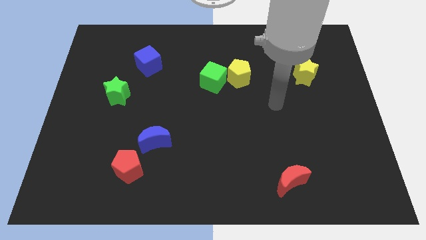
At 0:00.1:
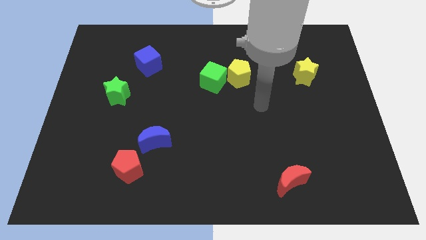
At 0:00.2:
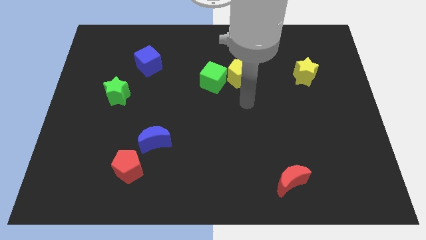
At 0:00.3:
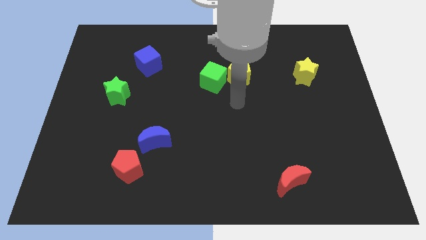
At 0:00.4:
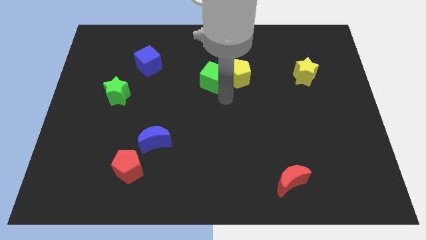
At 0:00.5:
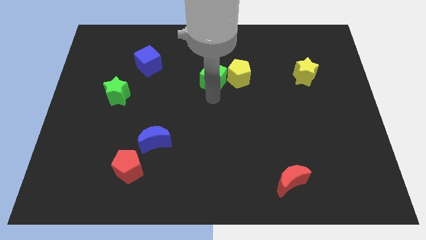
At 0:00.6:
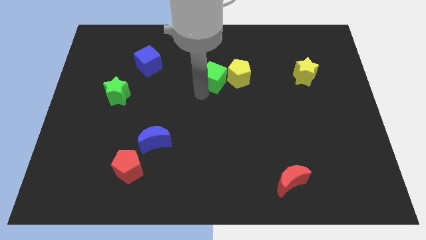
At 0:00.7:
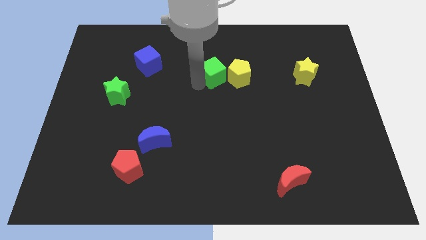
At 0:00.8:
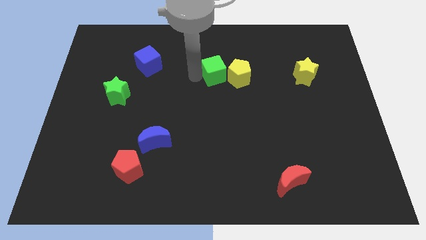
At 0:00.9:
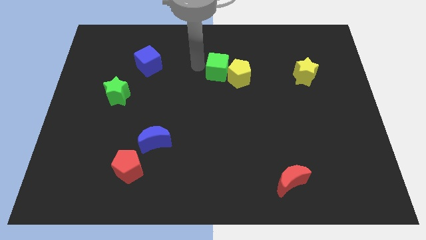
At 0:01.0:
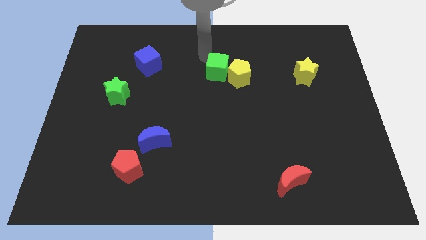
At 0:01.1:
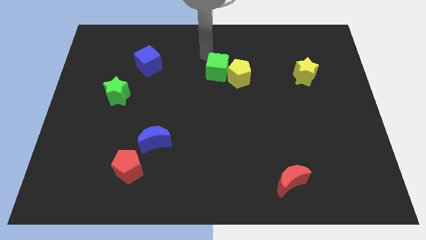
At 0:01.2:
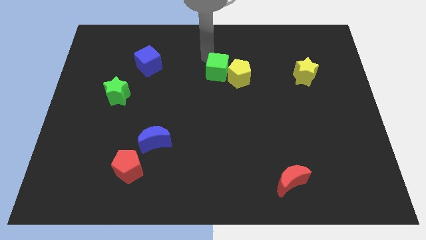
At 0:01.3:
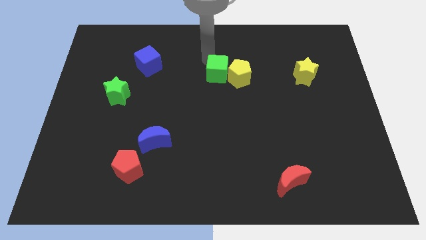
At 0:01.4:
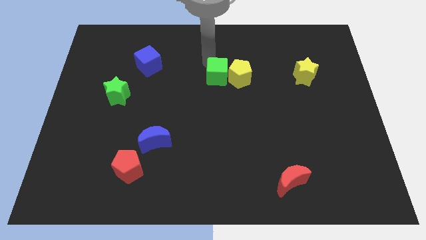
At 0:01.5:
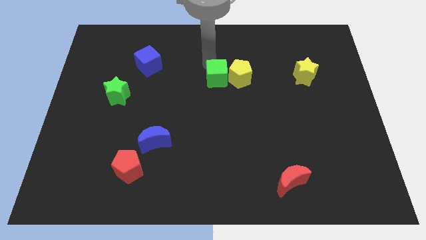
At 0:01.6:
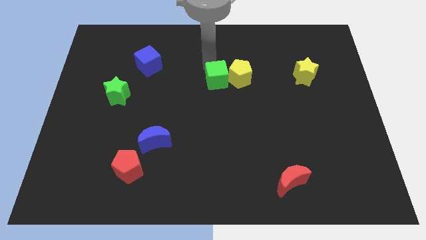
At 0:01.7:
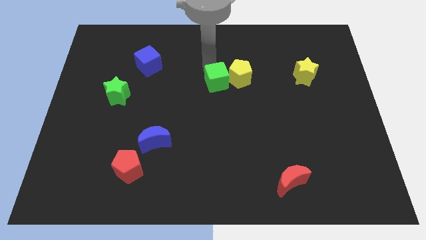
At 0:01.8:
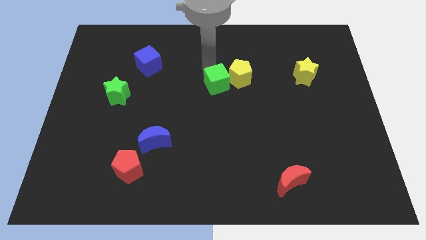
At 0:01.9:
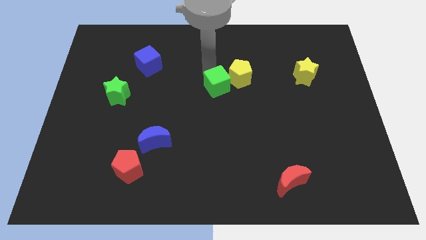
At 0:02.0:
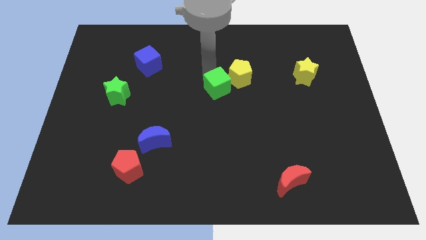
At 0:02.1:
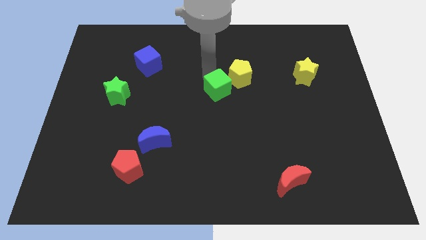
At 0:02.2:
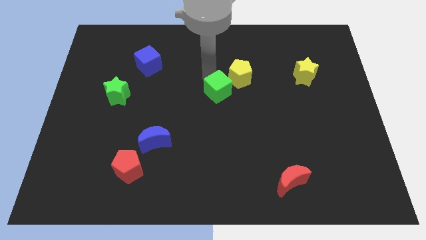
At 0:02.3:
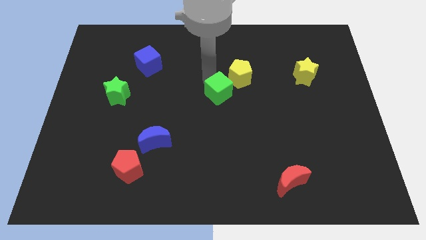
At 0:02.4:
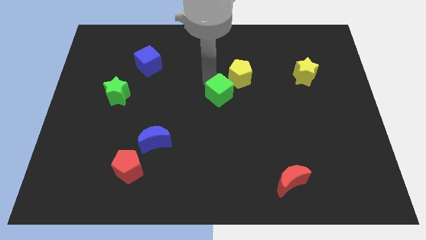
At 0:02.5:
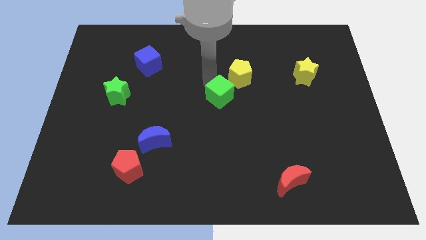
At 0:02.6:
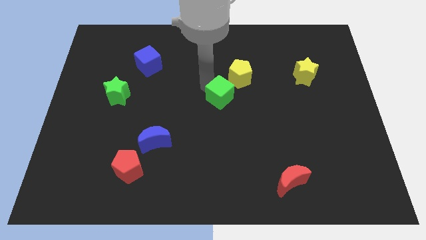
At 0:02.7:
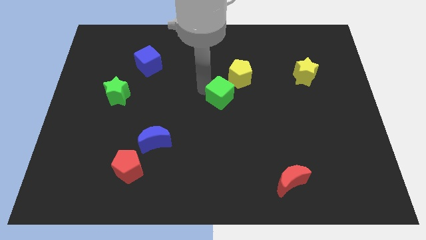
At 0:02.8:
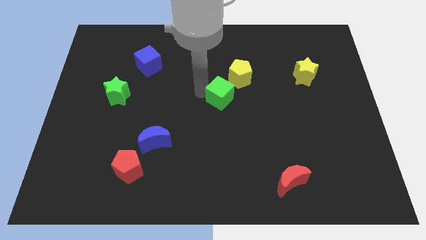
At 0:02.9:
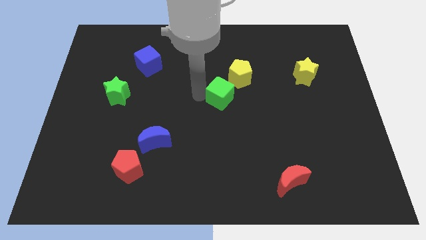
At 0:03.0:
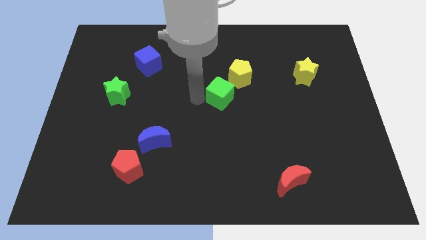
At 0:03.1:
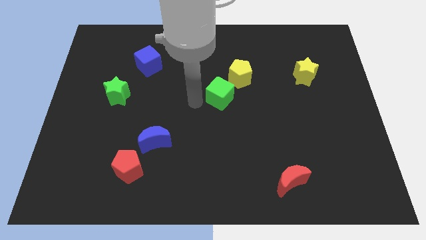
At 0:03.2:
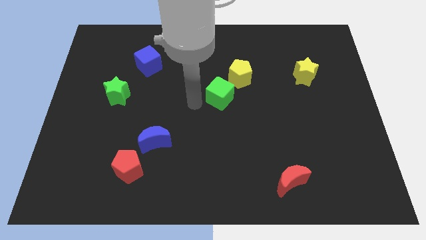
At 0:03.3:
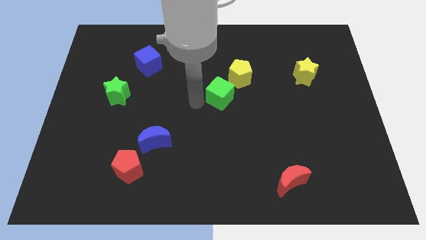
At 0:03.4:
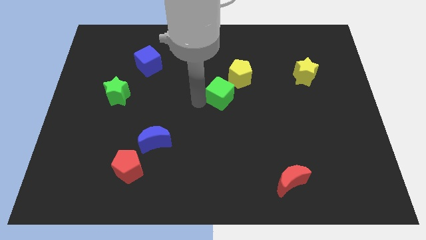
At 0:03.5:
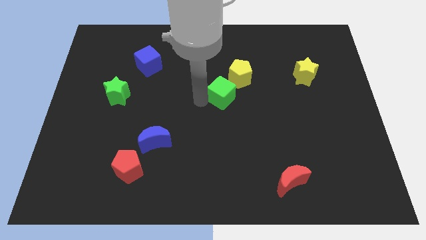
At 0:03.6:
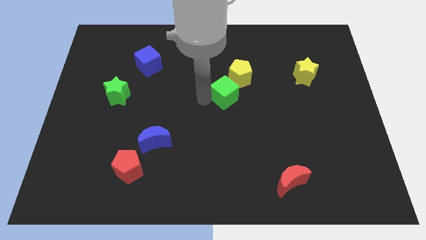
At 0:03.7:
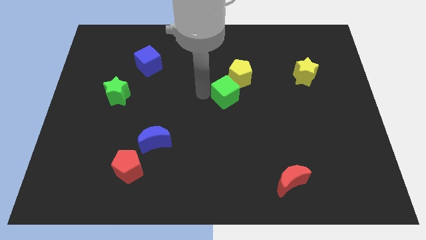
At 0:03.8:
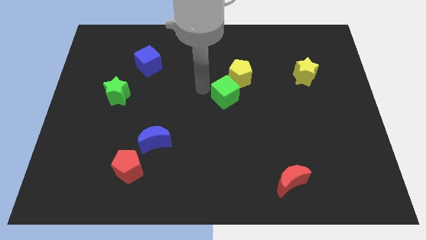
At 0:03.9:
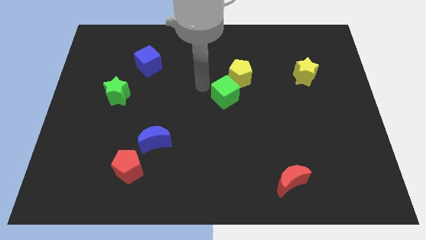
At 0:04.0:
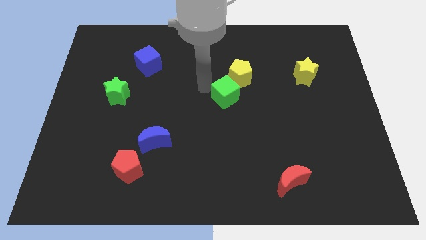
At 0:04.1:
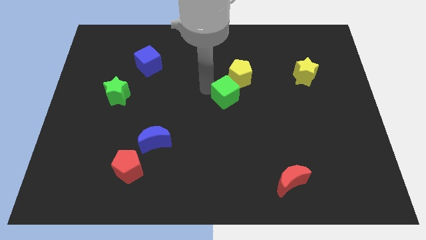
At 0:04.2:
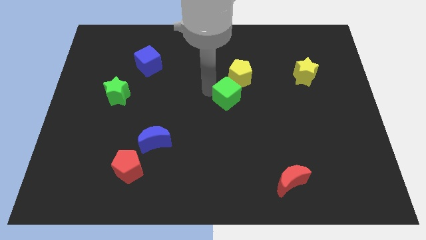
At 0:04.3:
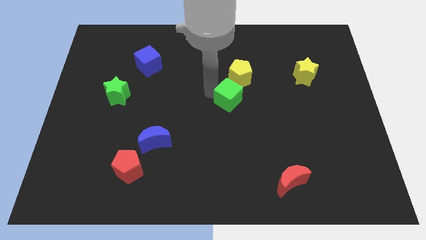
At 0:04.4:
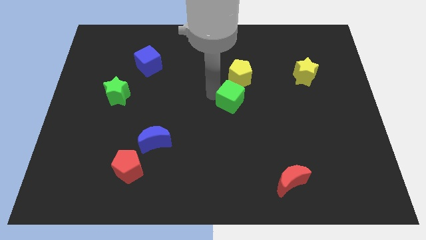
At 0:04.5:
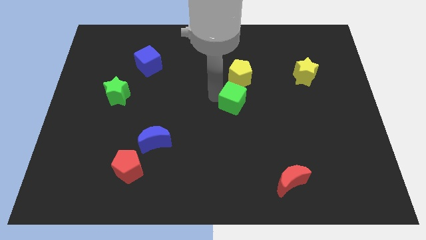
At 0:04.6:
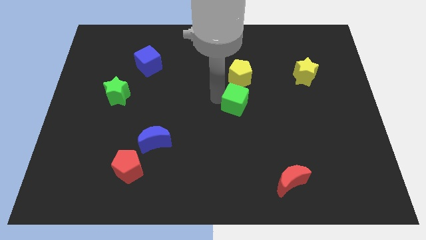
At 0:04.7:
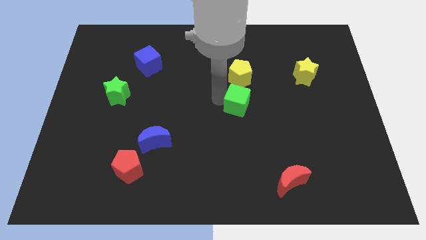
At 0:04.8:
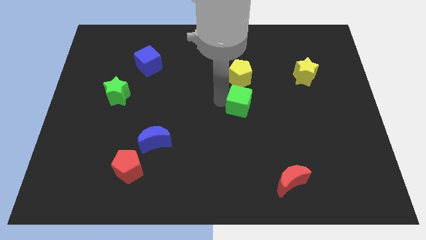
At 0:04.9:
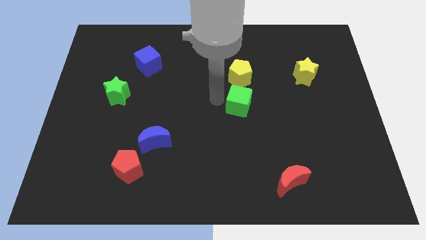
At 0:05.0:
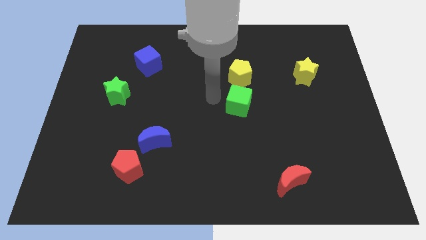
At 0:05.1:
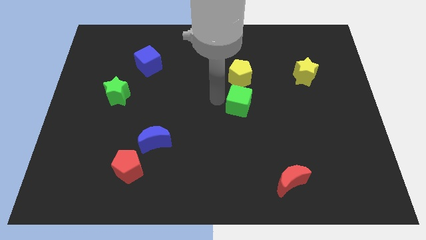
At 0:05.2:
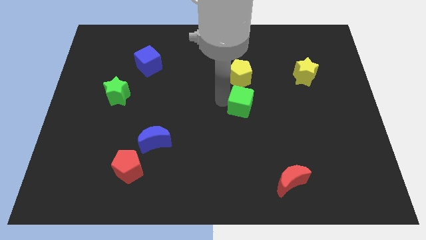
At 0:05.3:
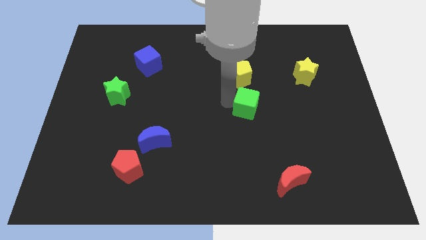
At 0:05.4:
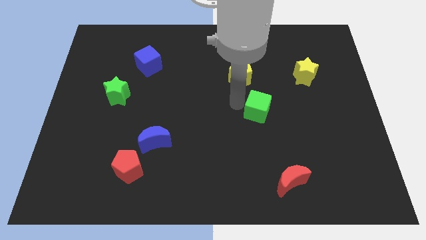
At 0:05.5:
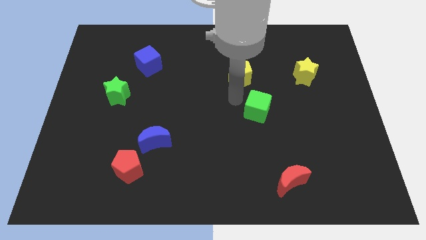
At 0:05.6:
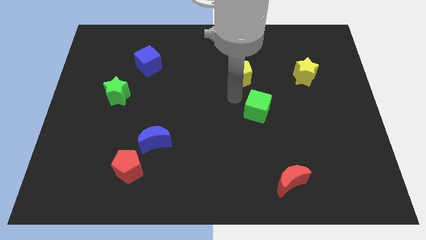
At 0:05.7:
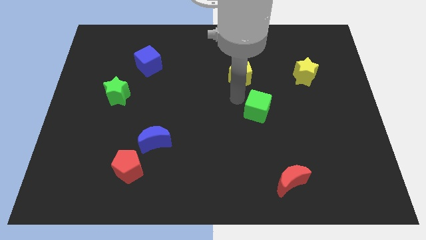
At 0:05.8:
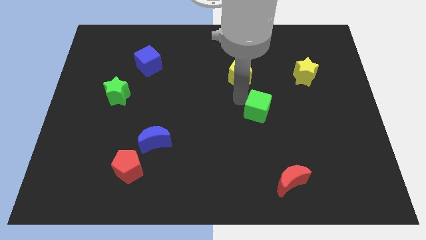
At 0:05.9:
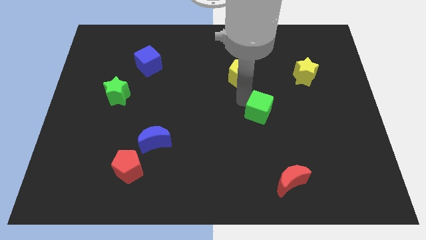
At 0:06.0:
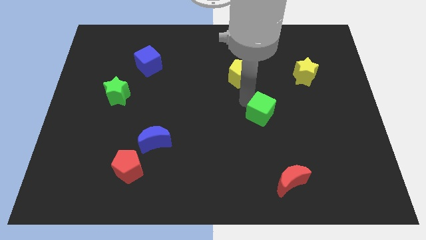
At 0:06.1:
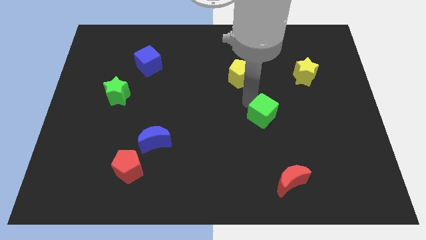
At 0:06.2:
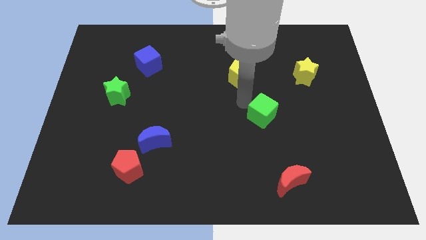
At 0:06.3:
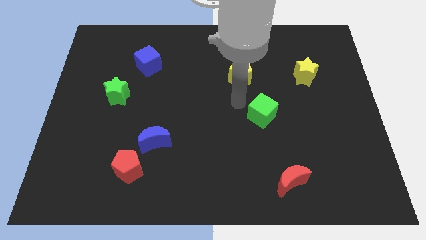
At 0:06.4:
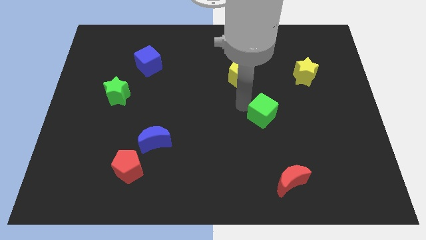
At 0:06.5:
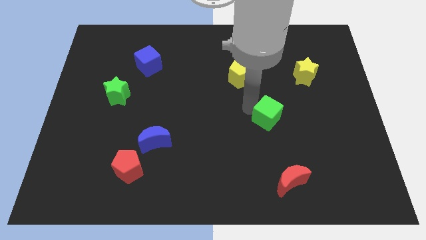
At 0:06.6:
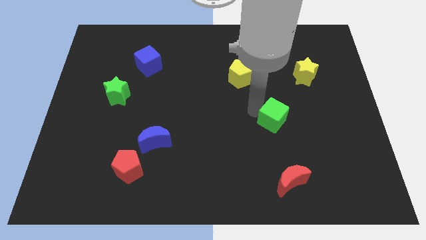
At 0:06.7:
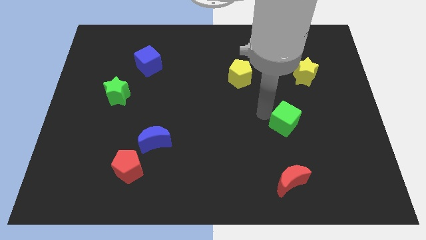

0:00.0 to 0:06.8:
move the green cube diagonally downwards and to the right

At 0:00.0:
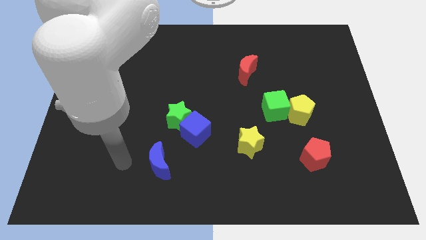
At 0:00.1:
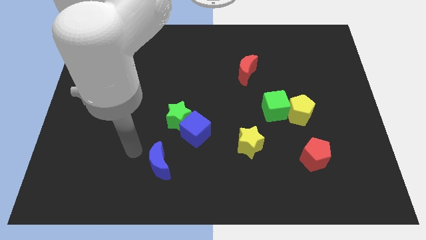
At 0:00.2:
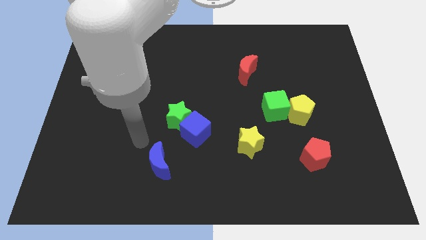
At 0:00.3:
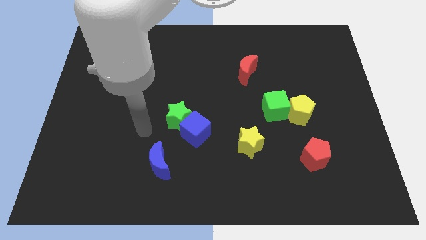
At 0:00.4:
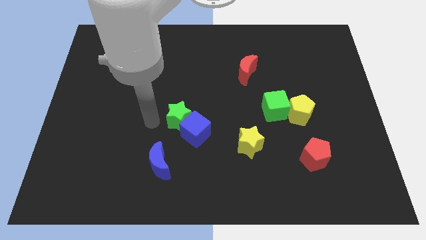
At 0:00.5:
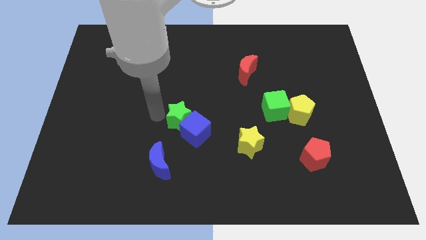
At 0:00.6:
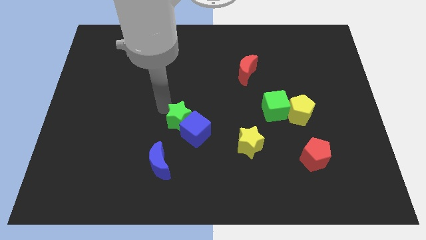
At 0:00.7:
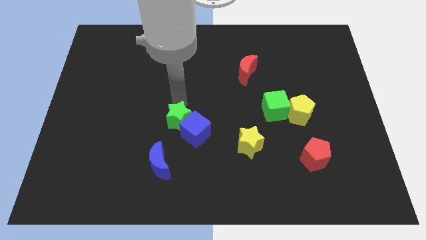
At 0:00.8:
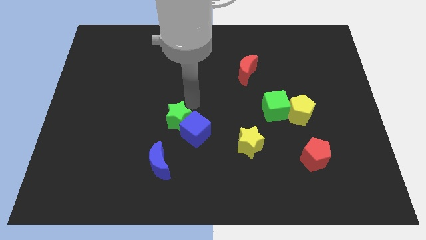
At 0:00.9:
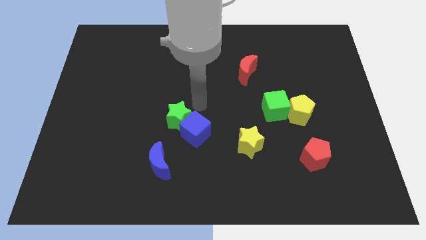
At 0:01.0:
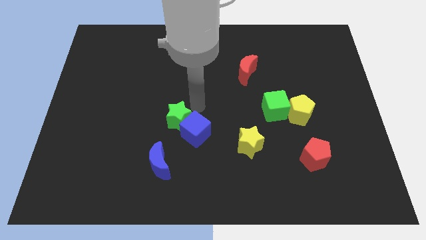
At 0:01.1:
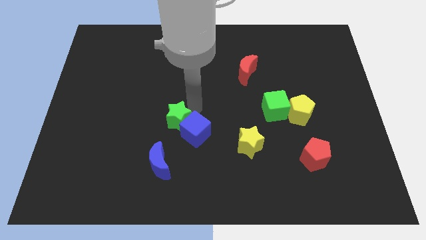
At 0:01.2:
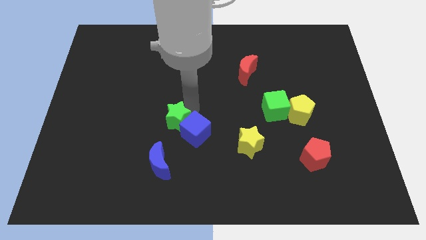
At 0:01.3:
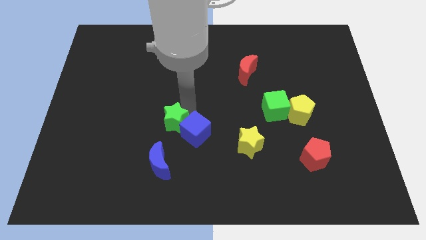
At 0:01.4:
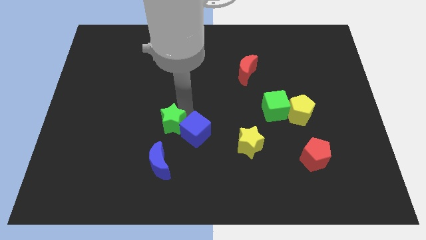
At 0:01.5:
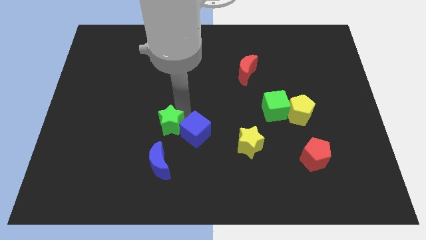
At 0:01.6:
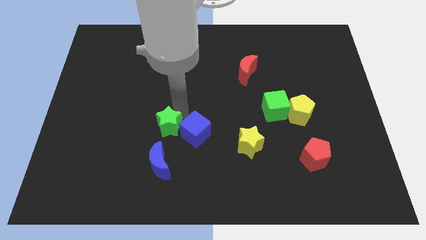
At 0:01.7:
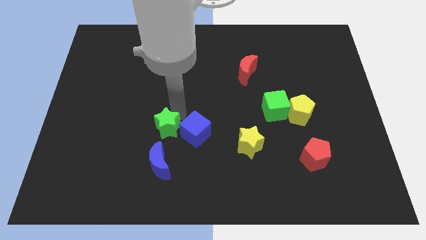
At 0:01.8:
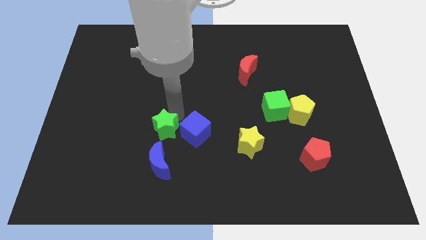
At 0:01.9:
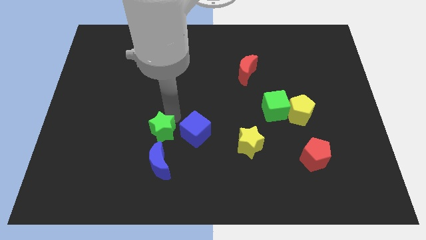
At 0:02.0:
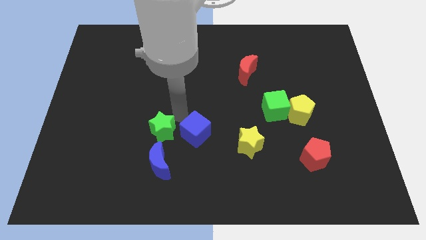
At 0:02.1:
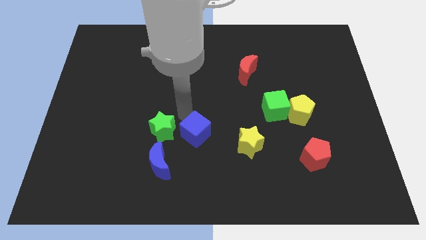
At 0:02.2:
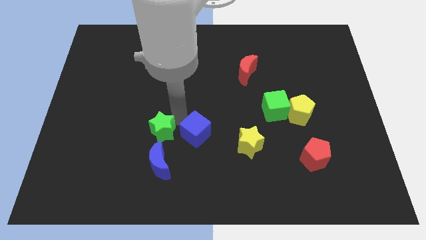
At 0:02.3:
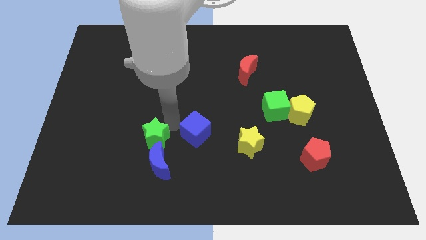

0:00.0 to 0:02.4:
slide the green star a little bit down and then left
